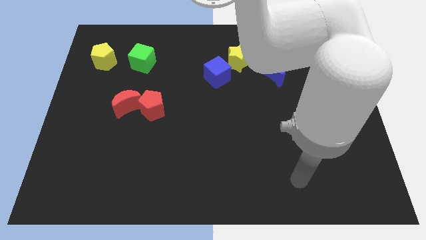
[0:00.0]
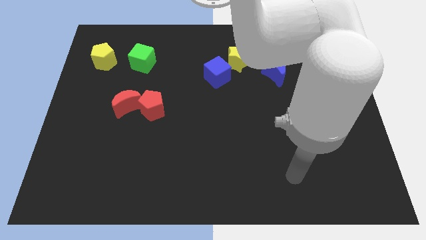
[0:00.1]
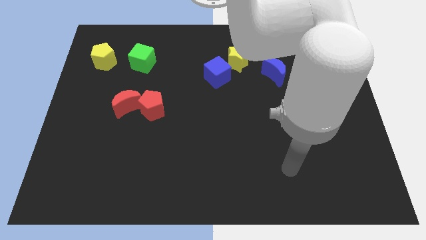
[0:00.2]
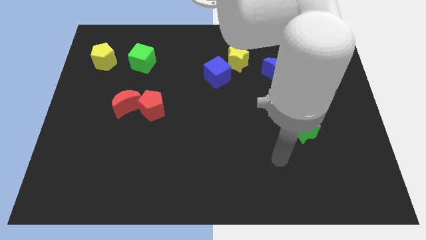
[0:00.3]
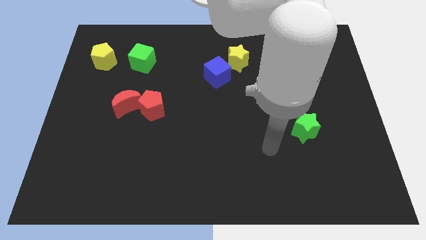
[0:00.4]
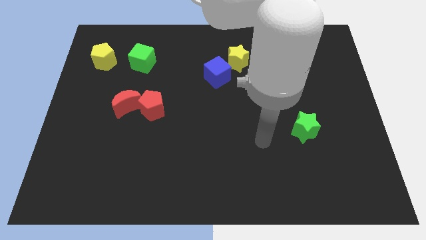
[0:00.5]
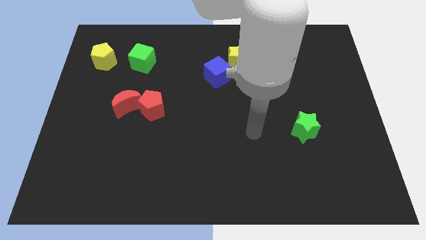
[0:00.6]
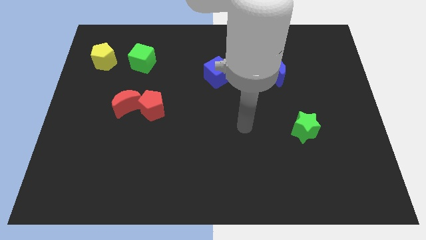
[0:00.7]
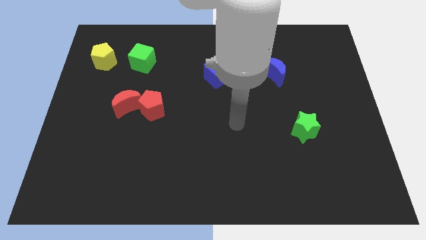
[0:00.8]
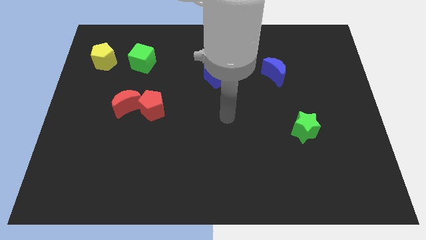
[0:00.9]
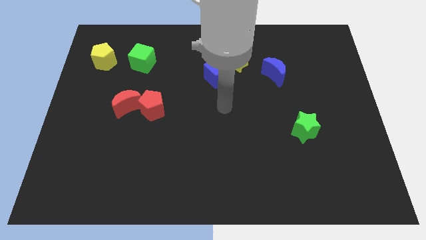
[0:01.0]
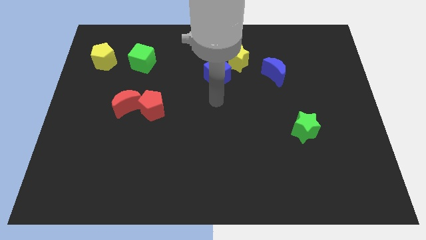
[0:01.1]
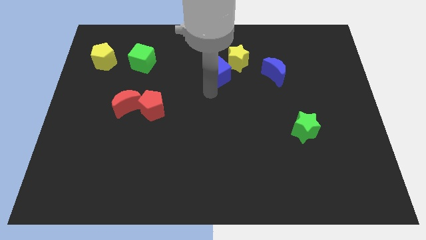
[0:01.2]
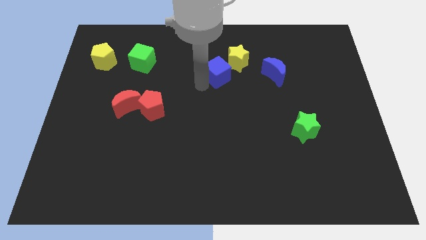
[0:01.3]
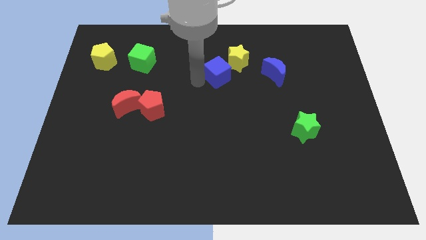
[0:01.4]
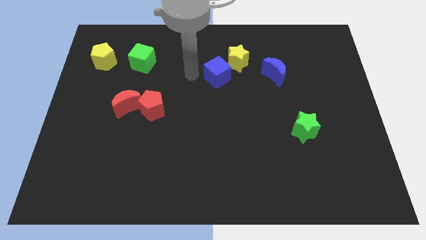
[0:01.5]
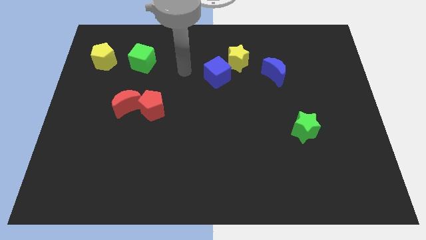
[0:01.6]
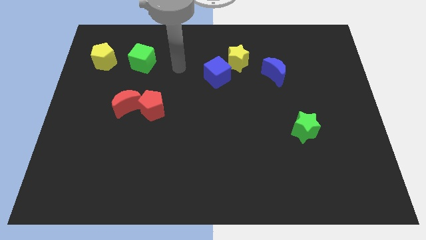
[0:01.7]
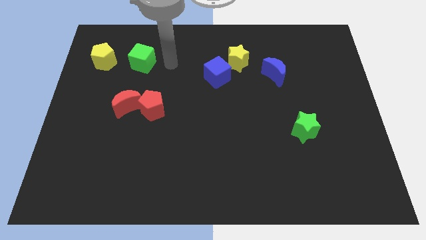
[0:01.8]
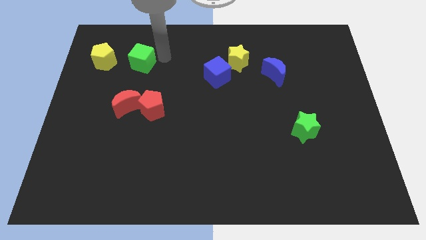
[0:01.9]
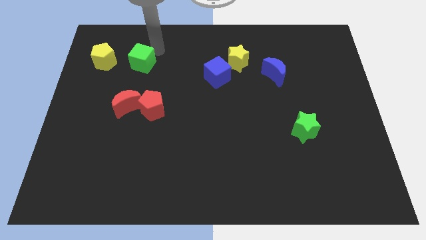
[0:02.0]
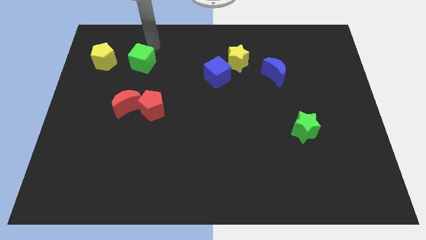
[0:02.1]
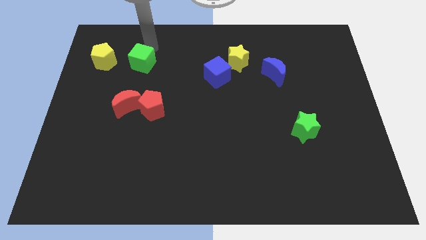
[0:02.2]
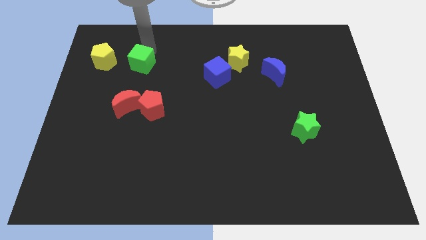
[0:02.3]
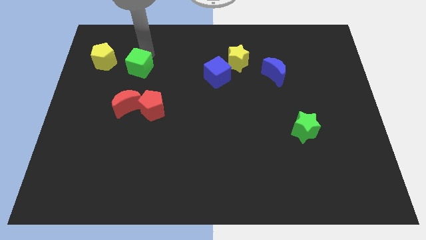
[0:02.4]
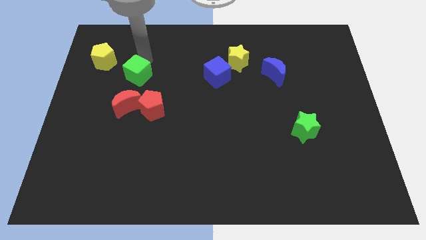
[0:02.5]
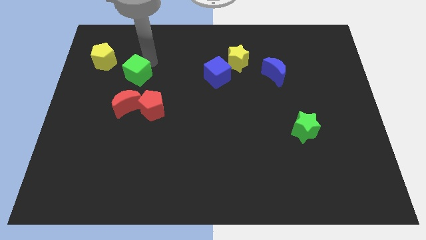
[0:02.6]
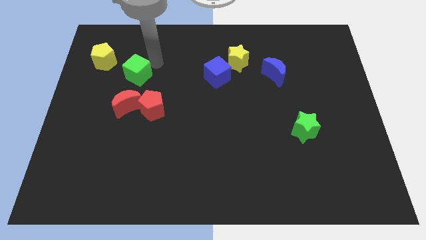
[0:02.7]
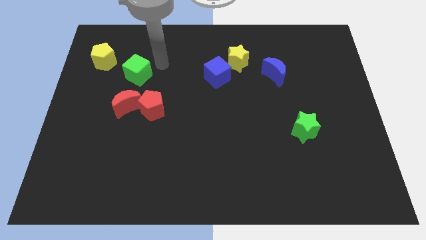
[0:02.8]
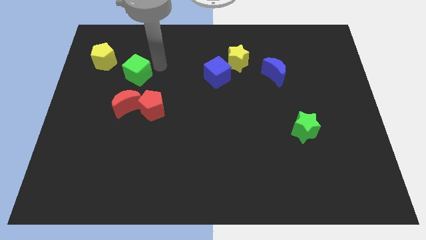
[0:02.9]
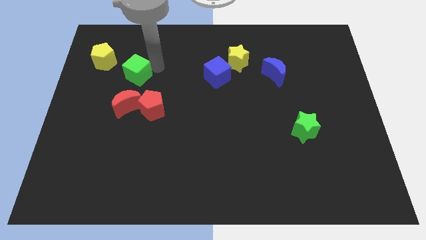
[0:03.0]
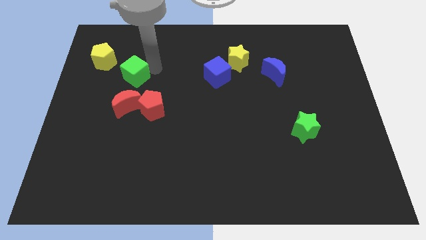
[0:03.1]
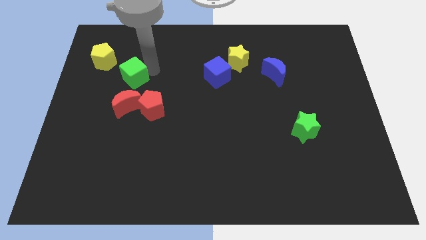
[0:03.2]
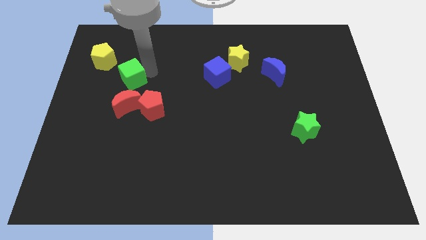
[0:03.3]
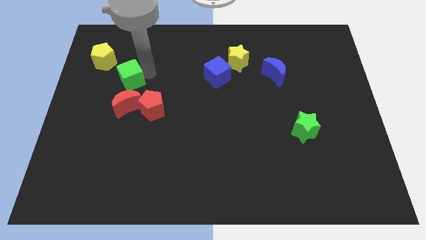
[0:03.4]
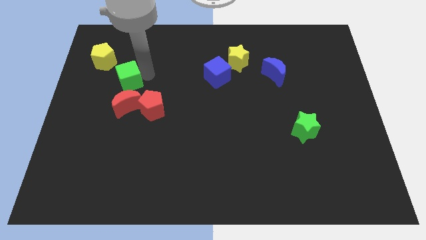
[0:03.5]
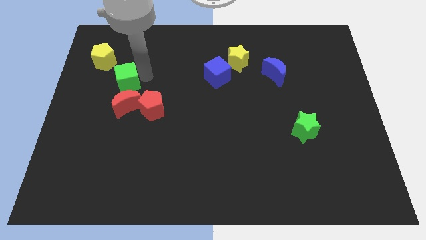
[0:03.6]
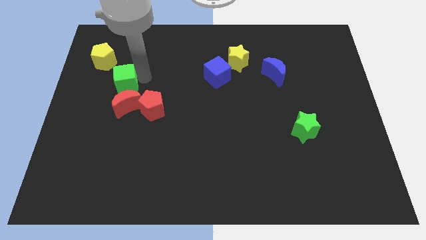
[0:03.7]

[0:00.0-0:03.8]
slightly move the green cube down

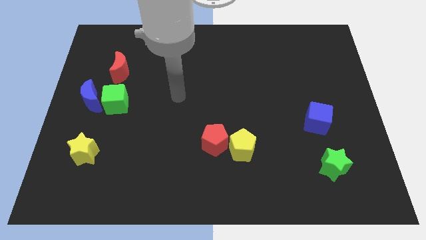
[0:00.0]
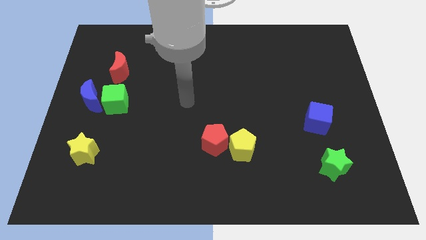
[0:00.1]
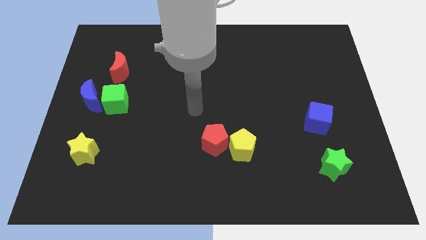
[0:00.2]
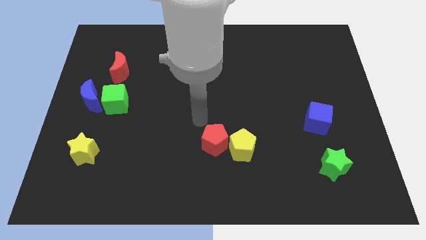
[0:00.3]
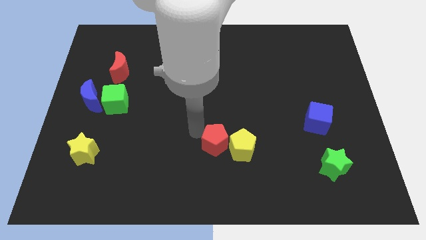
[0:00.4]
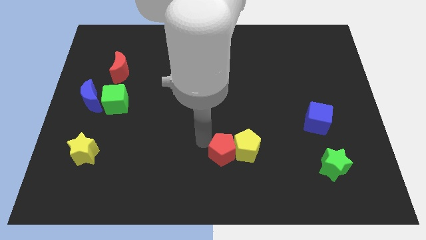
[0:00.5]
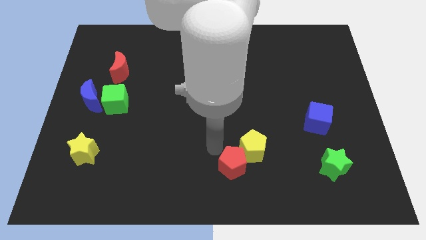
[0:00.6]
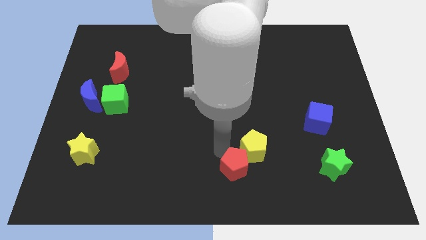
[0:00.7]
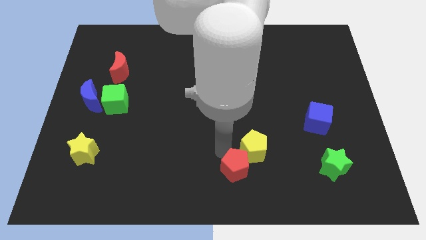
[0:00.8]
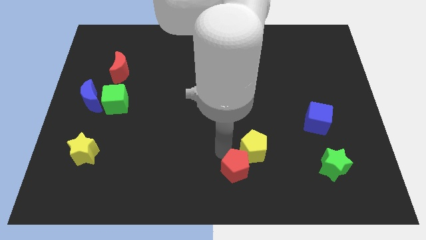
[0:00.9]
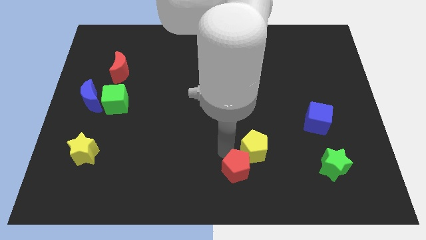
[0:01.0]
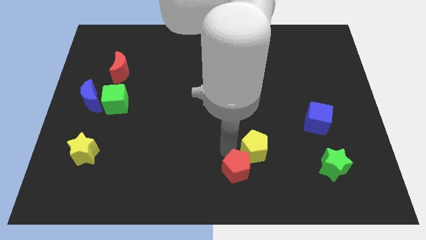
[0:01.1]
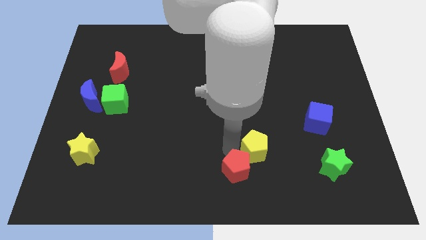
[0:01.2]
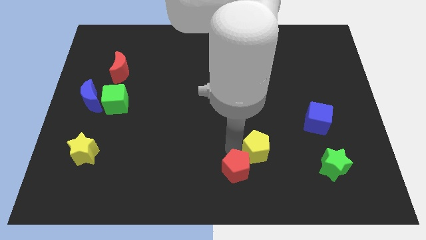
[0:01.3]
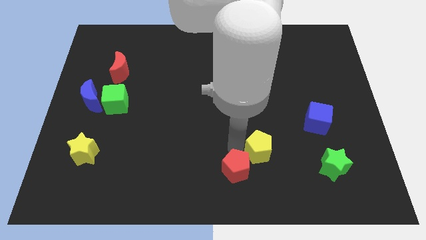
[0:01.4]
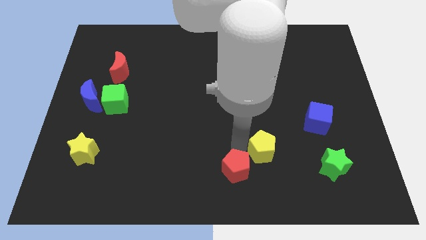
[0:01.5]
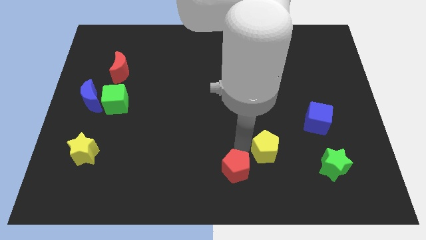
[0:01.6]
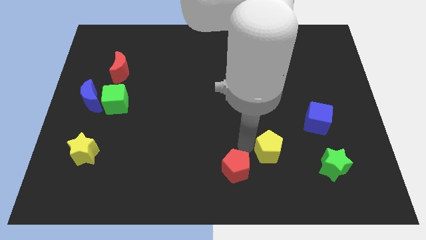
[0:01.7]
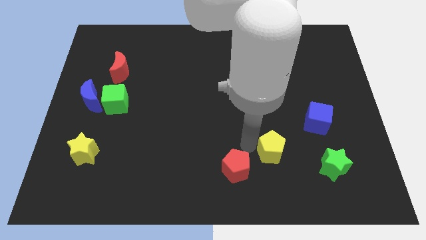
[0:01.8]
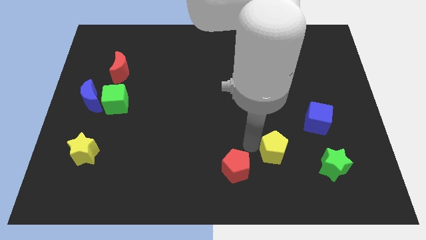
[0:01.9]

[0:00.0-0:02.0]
slightly slide the yellow pentagon right

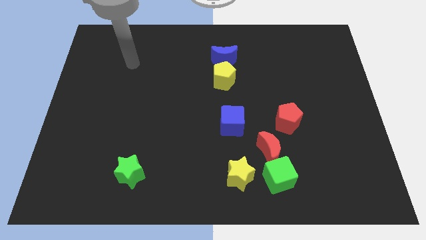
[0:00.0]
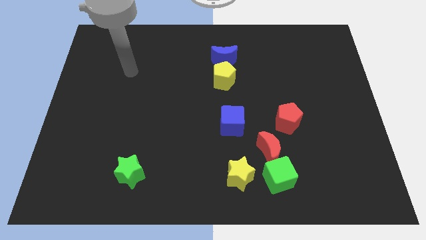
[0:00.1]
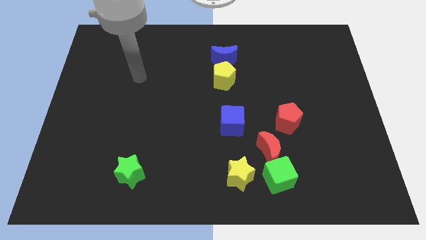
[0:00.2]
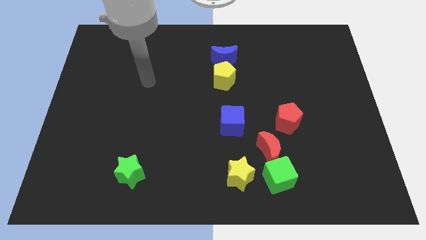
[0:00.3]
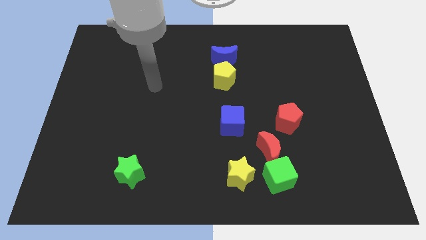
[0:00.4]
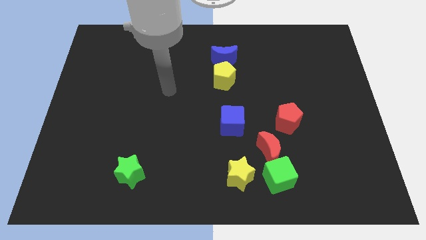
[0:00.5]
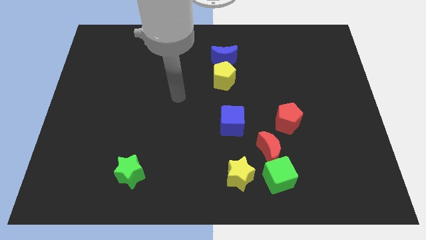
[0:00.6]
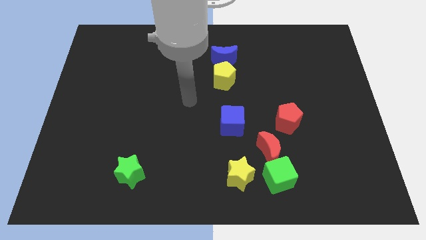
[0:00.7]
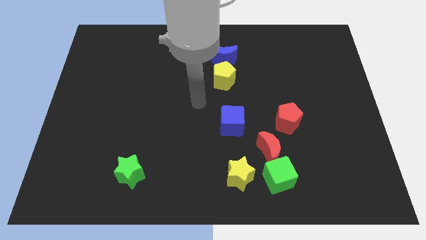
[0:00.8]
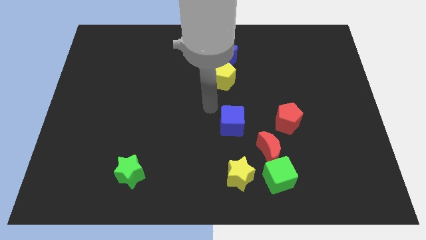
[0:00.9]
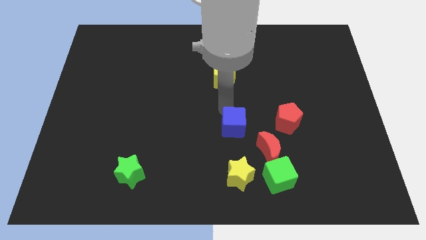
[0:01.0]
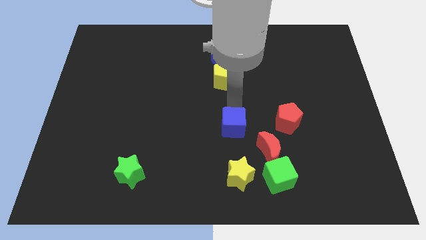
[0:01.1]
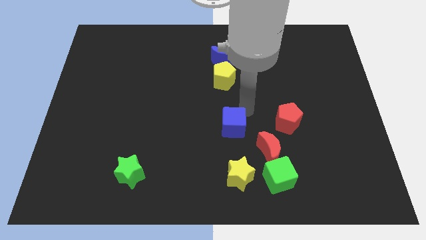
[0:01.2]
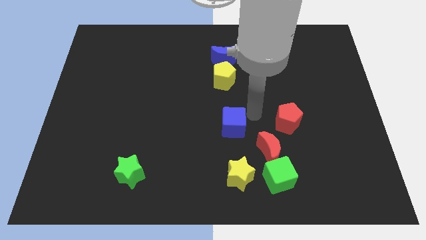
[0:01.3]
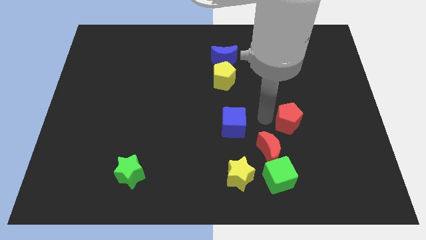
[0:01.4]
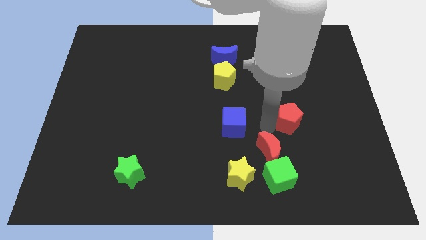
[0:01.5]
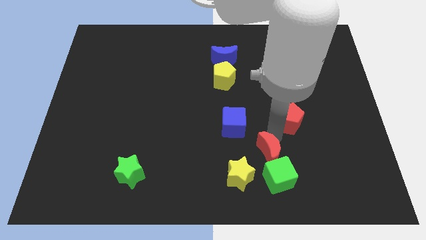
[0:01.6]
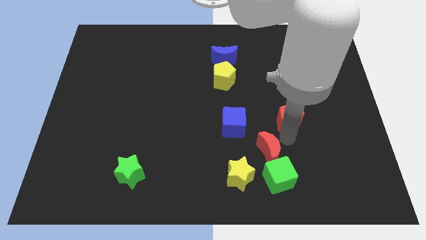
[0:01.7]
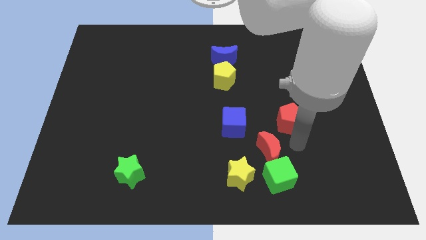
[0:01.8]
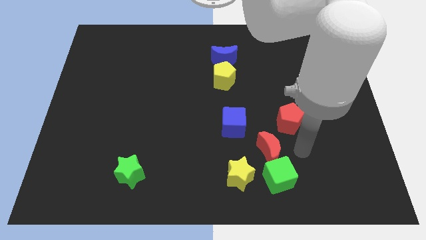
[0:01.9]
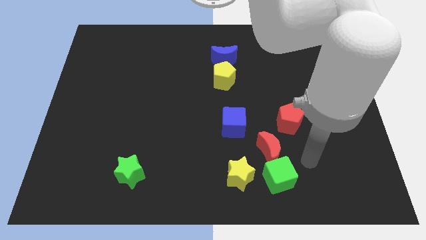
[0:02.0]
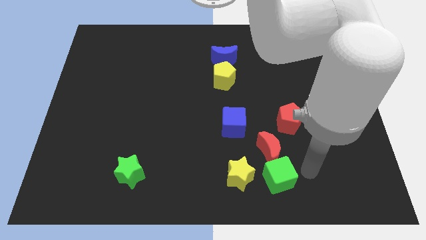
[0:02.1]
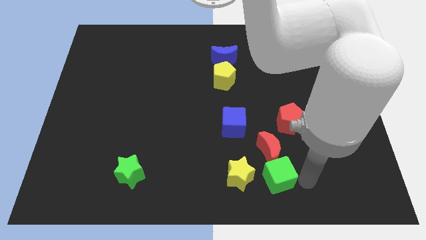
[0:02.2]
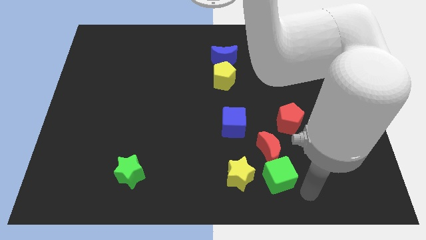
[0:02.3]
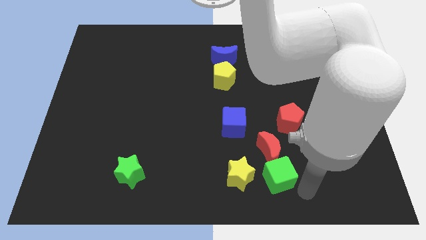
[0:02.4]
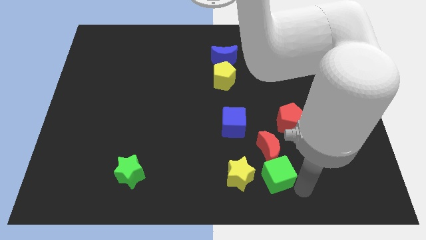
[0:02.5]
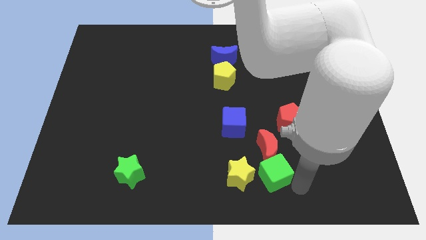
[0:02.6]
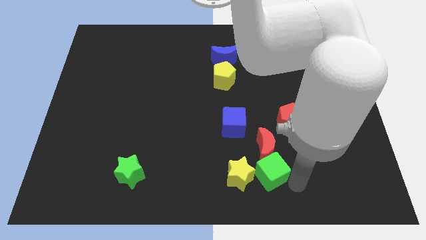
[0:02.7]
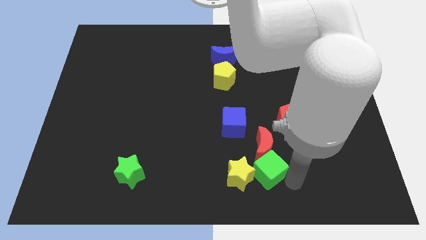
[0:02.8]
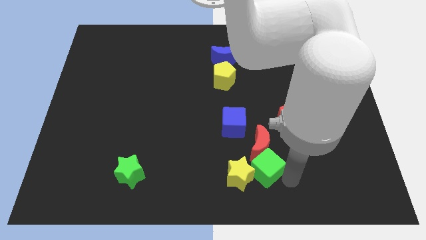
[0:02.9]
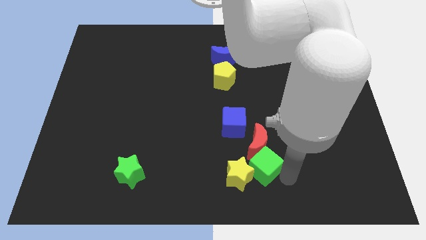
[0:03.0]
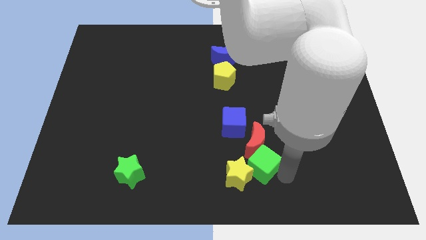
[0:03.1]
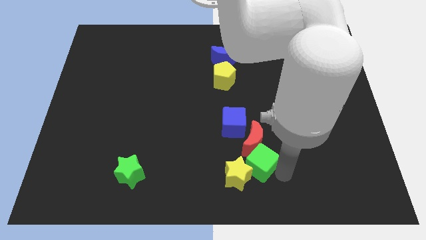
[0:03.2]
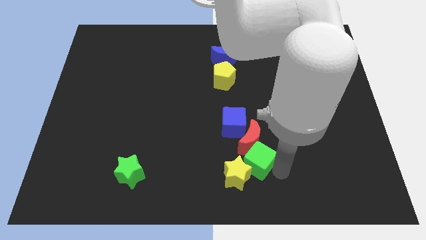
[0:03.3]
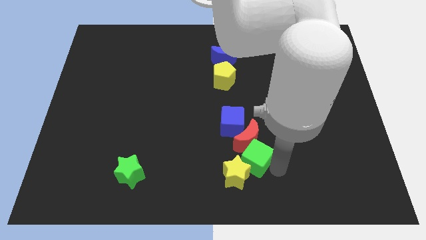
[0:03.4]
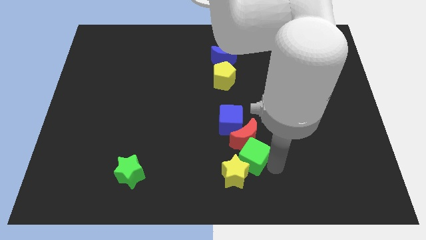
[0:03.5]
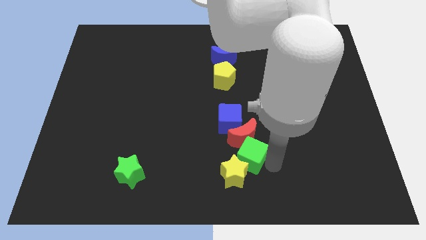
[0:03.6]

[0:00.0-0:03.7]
slightly push the green cube upwards and to the left
